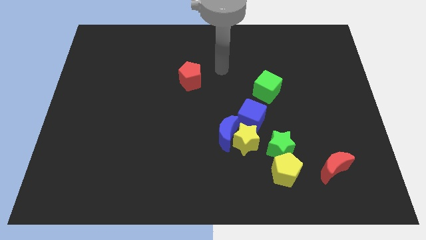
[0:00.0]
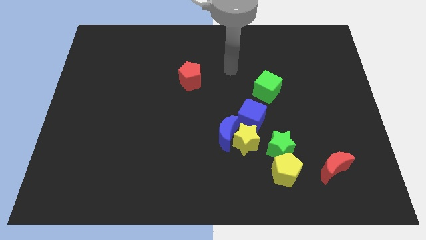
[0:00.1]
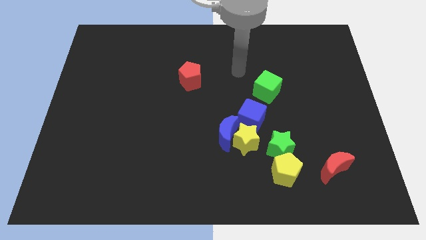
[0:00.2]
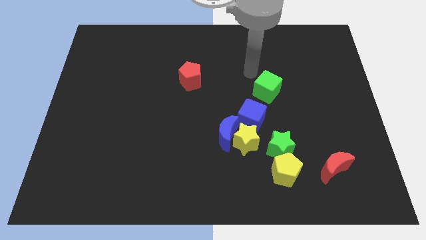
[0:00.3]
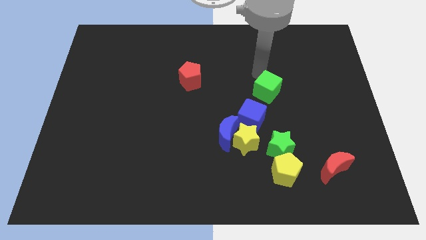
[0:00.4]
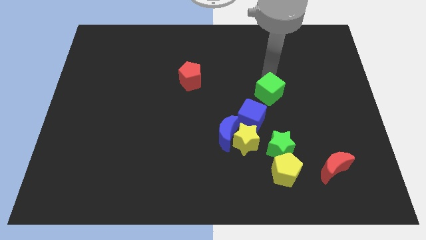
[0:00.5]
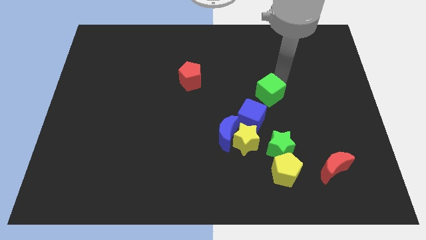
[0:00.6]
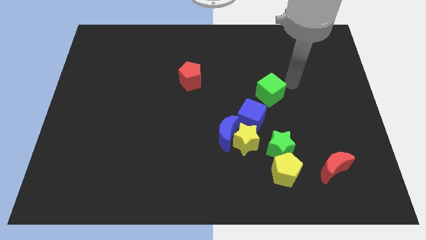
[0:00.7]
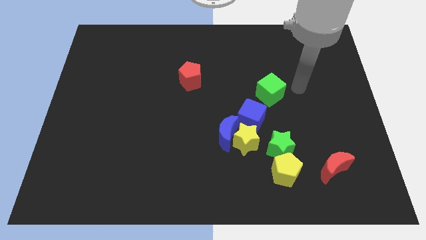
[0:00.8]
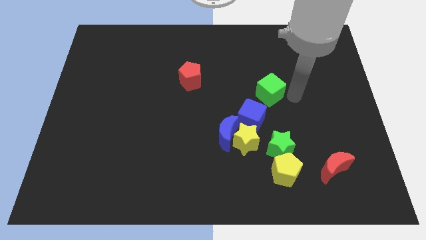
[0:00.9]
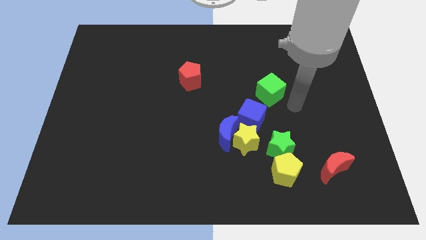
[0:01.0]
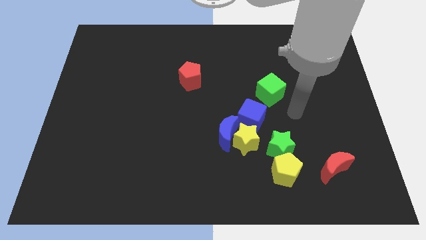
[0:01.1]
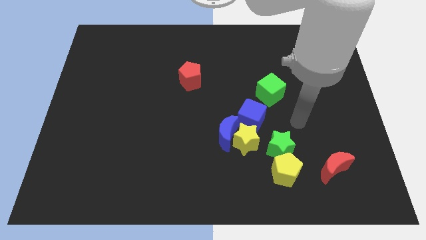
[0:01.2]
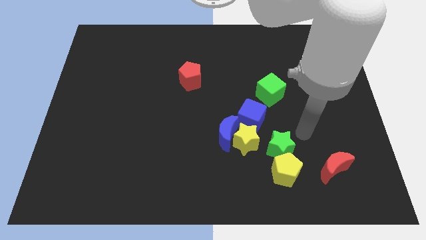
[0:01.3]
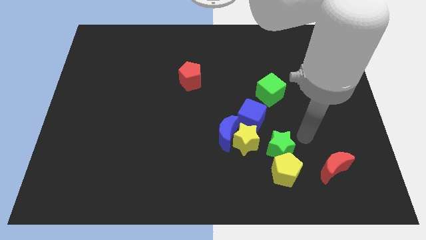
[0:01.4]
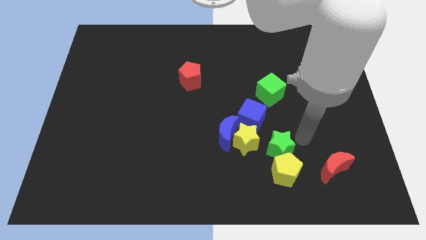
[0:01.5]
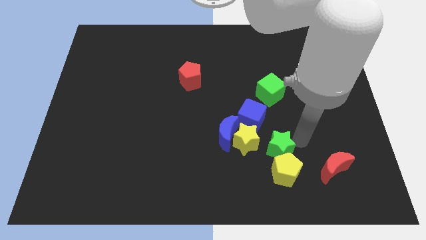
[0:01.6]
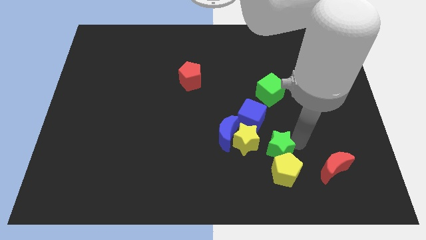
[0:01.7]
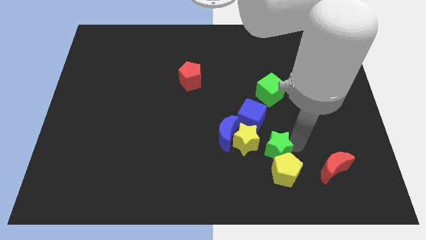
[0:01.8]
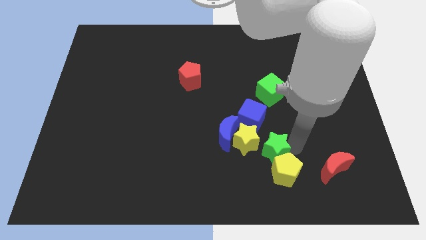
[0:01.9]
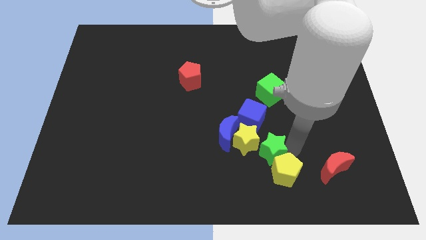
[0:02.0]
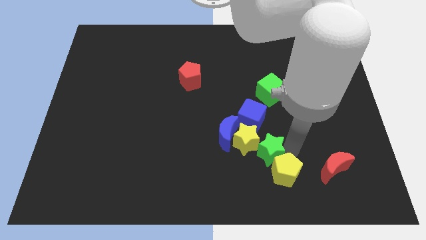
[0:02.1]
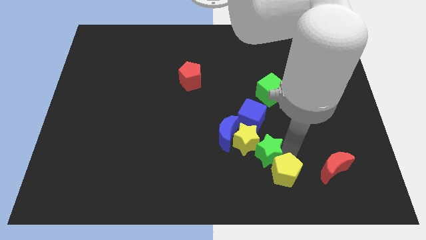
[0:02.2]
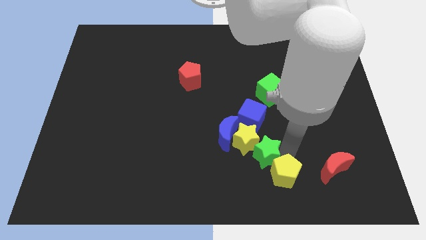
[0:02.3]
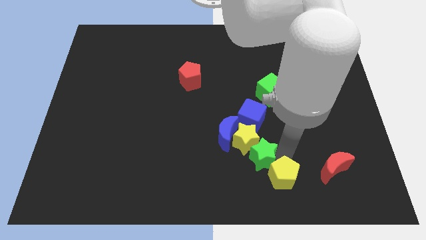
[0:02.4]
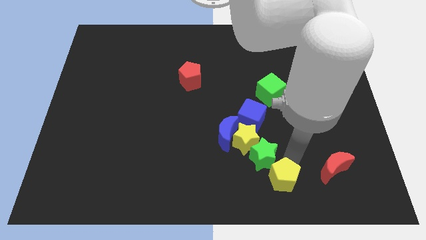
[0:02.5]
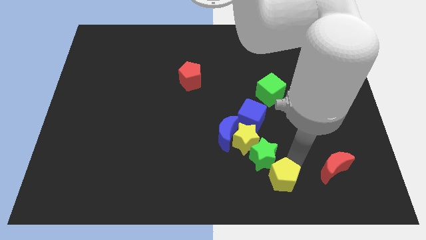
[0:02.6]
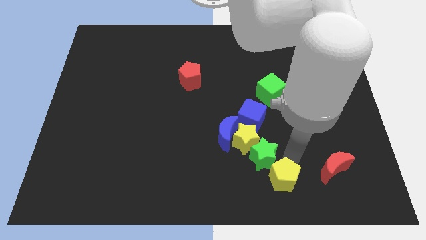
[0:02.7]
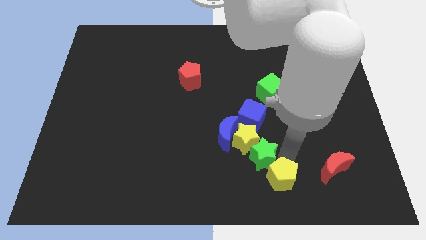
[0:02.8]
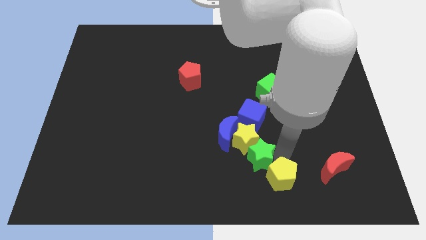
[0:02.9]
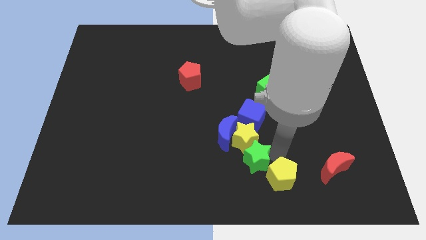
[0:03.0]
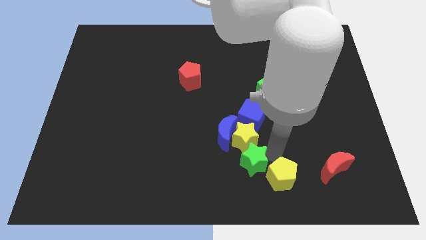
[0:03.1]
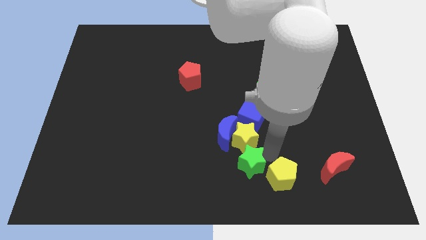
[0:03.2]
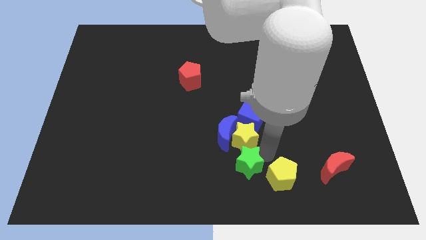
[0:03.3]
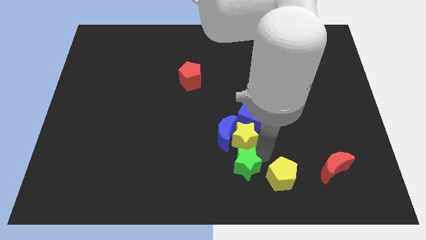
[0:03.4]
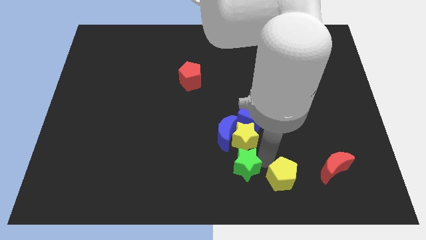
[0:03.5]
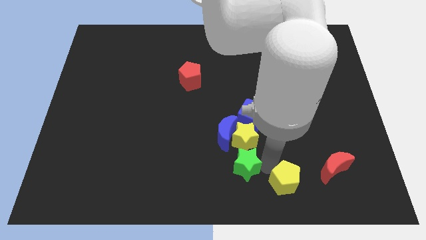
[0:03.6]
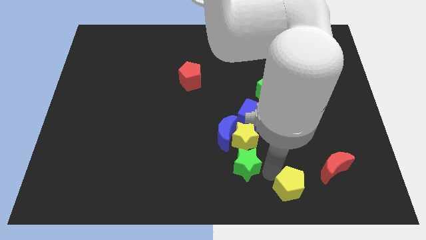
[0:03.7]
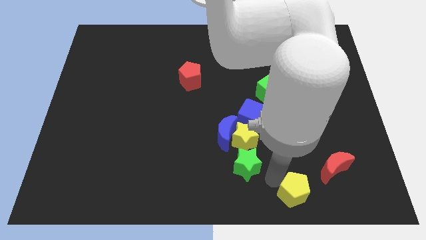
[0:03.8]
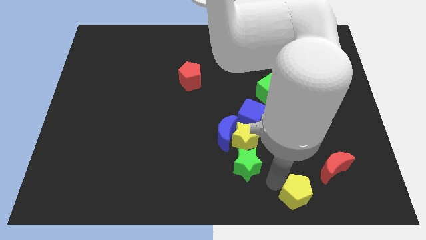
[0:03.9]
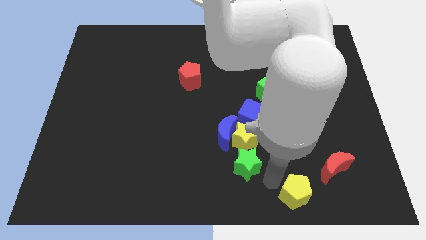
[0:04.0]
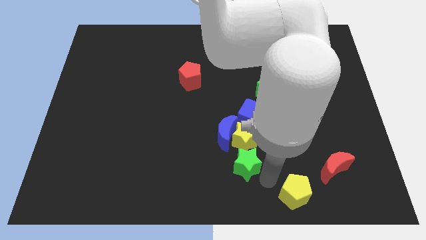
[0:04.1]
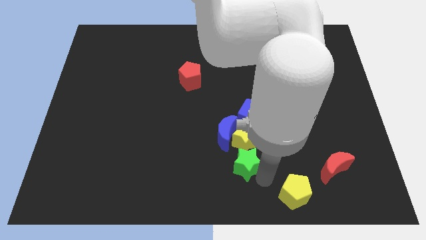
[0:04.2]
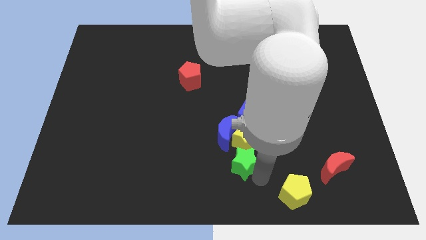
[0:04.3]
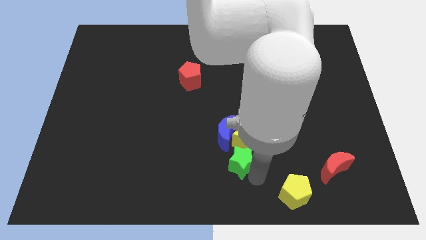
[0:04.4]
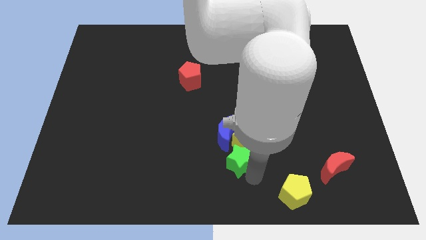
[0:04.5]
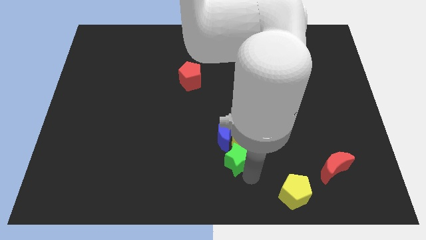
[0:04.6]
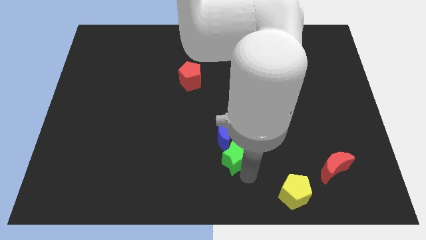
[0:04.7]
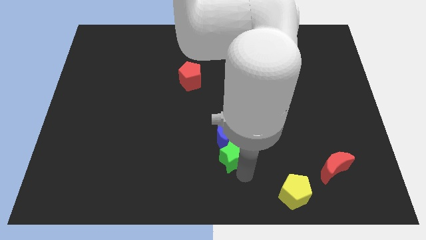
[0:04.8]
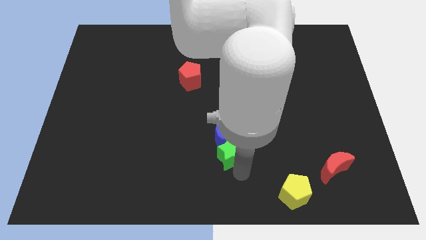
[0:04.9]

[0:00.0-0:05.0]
put the green star next to the blue moon

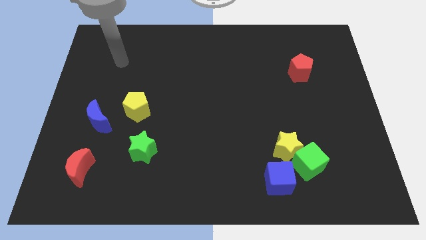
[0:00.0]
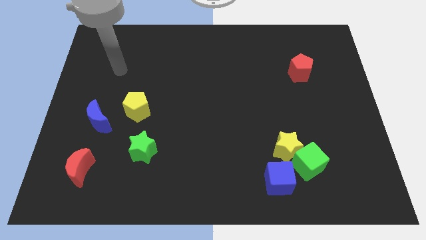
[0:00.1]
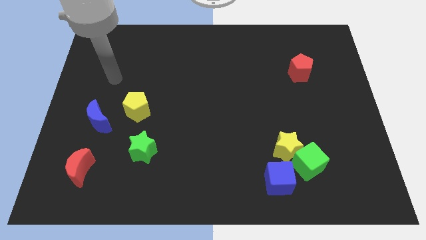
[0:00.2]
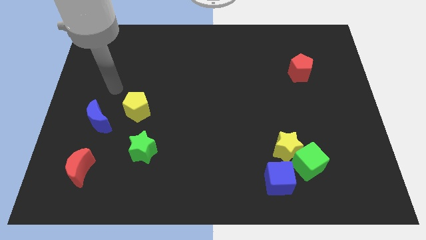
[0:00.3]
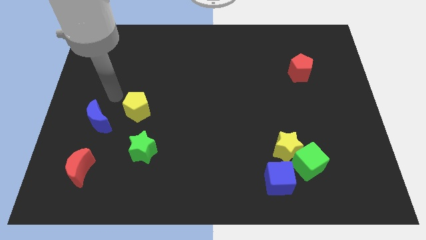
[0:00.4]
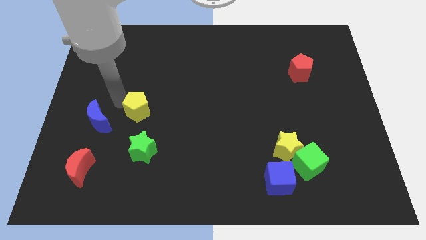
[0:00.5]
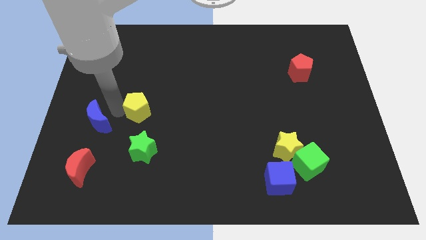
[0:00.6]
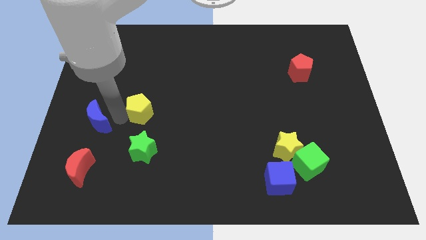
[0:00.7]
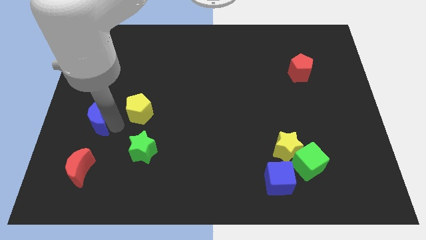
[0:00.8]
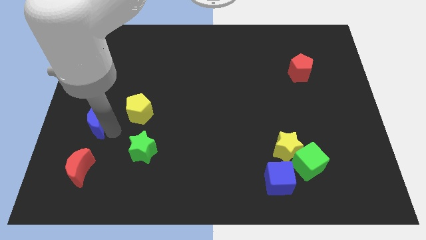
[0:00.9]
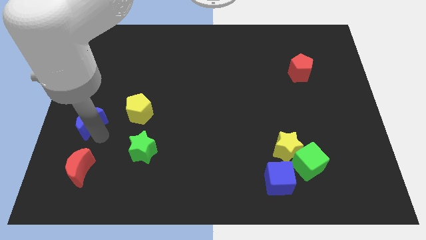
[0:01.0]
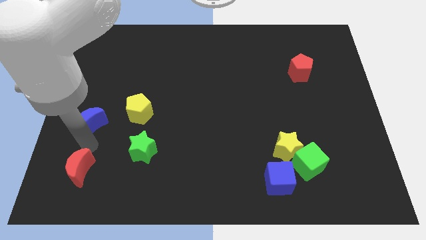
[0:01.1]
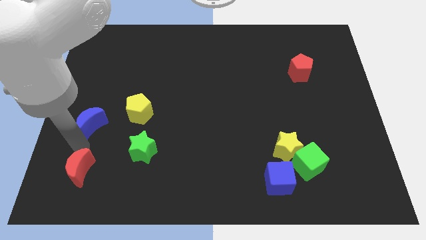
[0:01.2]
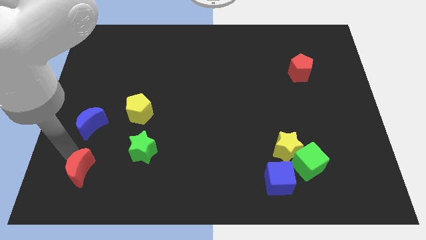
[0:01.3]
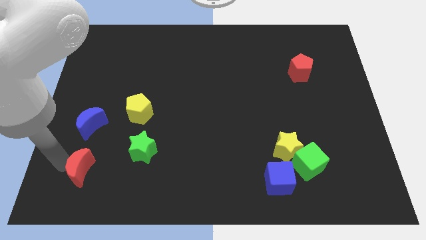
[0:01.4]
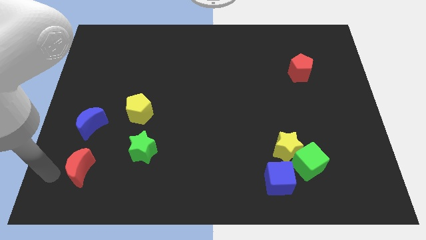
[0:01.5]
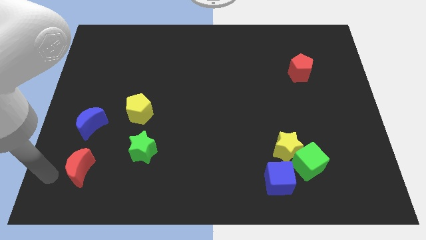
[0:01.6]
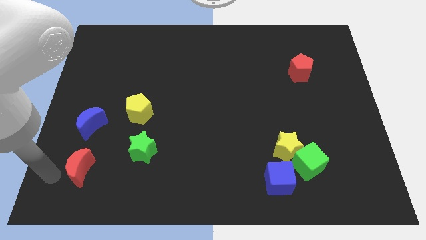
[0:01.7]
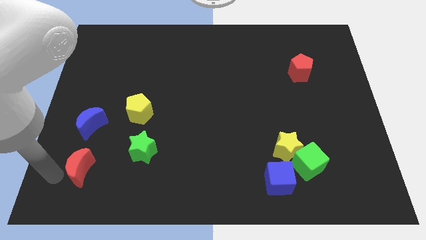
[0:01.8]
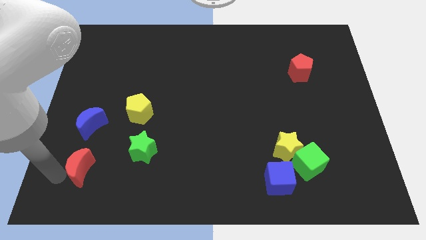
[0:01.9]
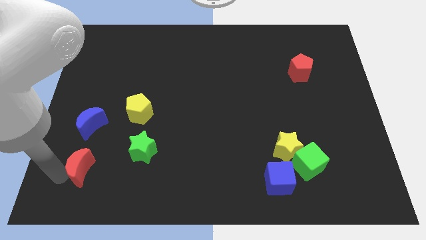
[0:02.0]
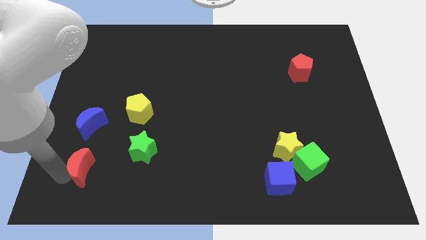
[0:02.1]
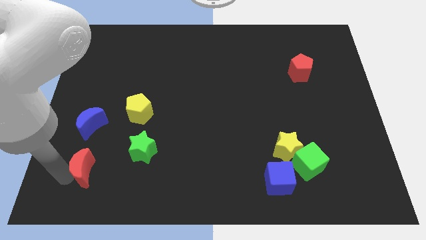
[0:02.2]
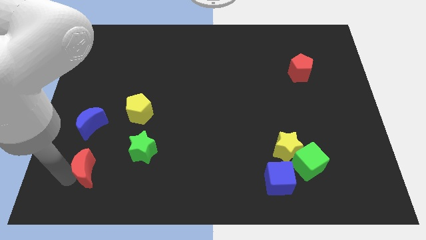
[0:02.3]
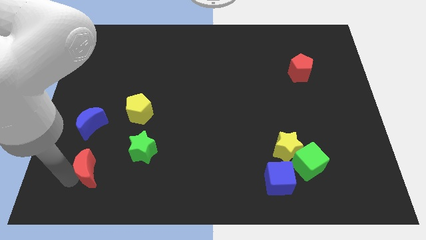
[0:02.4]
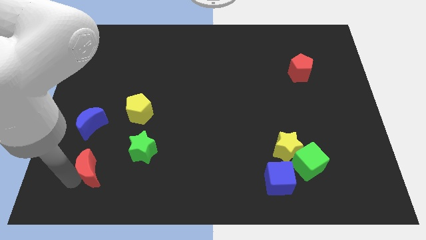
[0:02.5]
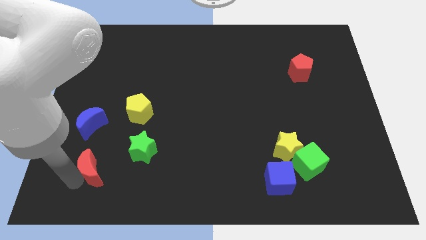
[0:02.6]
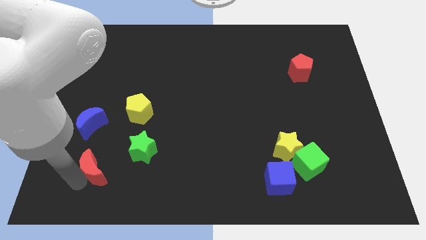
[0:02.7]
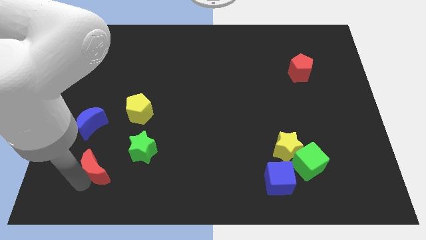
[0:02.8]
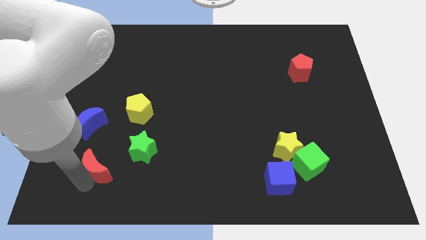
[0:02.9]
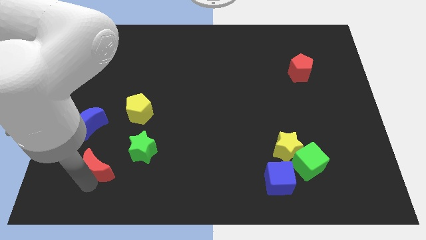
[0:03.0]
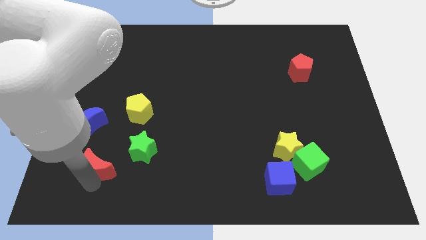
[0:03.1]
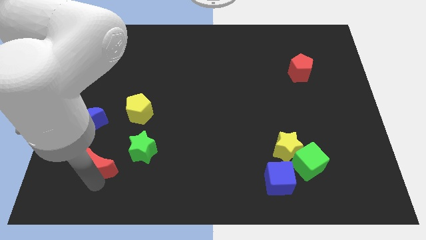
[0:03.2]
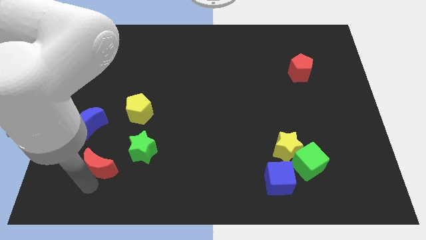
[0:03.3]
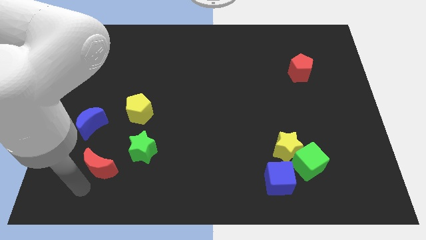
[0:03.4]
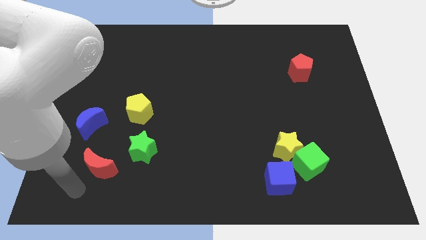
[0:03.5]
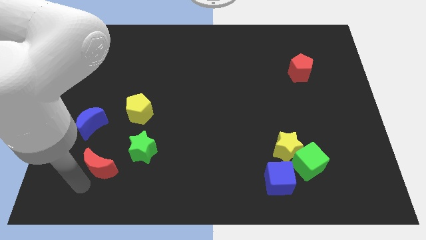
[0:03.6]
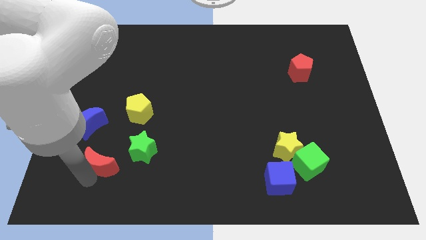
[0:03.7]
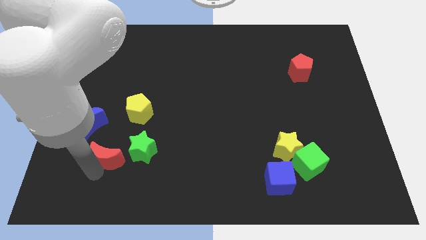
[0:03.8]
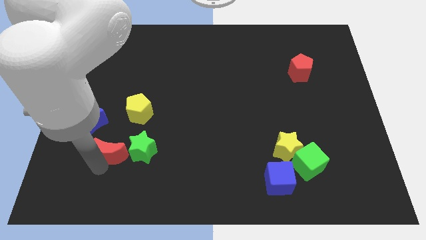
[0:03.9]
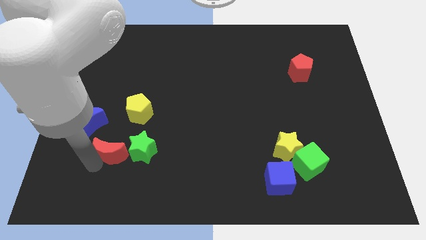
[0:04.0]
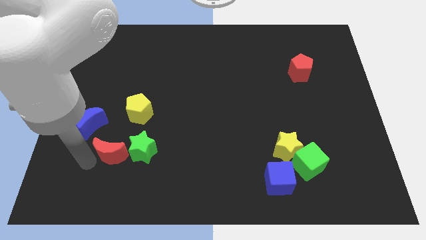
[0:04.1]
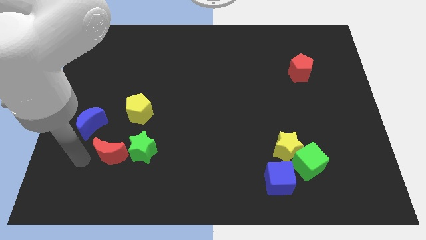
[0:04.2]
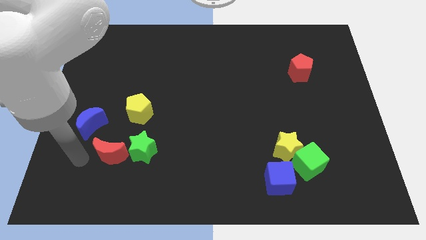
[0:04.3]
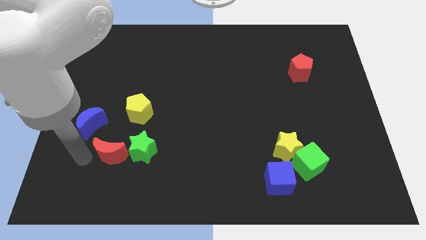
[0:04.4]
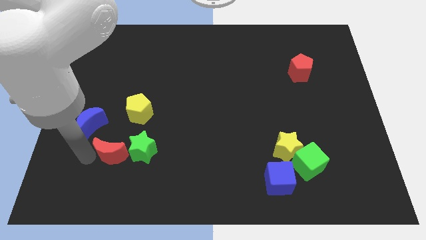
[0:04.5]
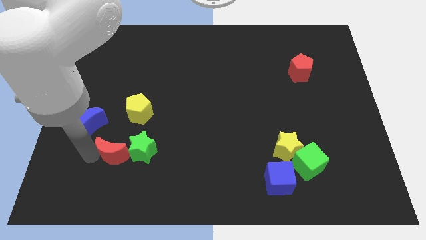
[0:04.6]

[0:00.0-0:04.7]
put the red moon to the green star
